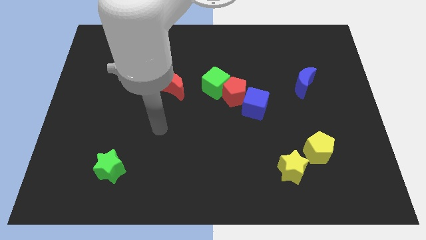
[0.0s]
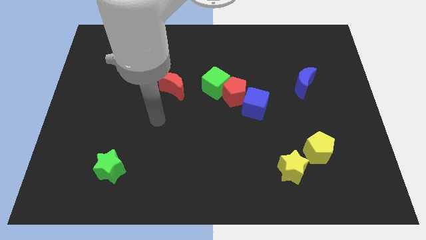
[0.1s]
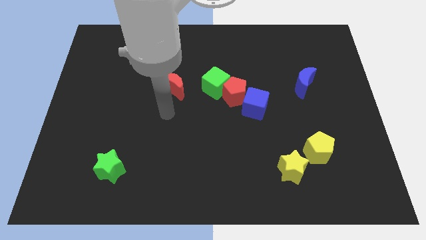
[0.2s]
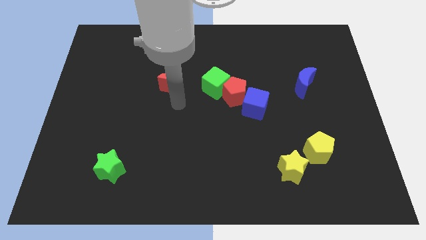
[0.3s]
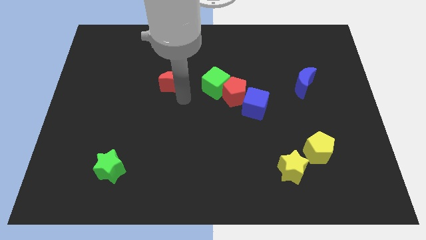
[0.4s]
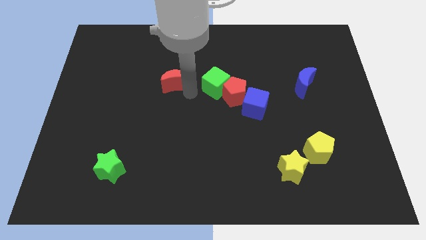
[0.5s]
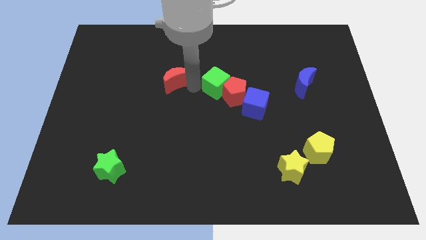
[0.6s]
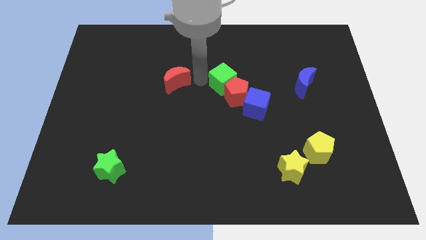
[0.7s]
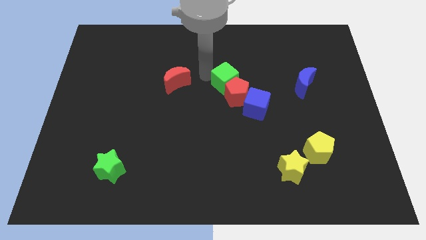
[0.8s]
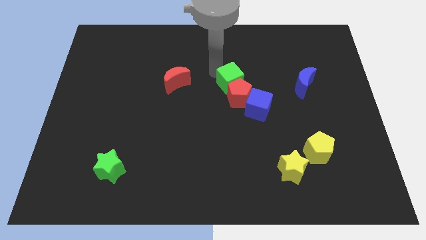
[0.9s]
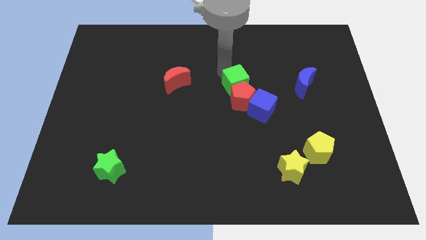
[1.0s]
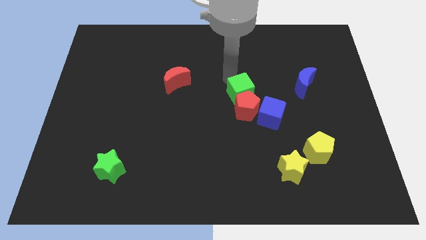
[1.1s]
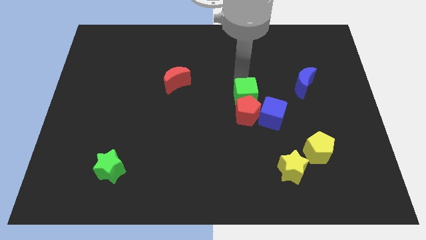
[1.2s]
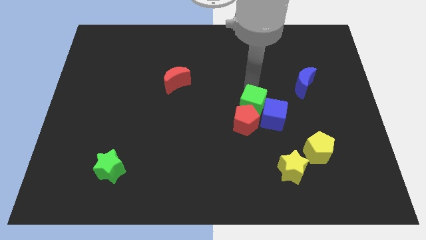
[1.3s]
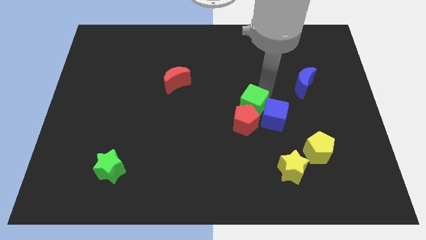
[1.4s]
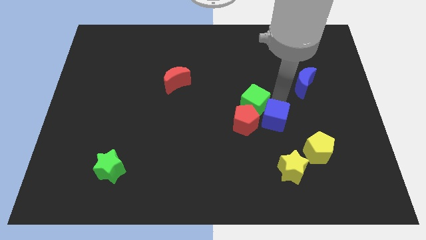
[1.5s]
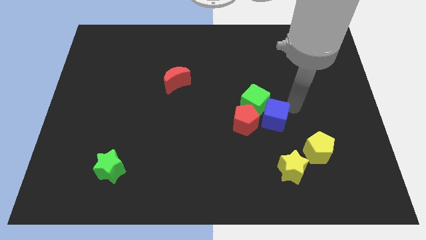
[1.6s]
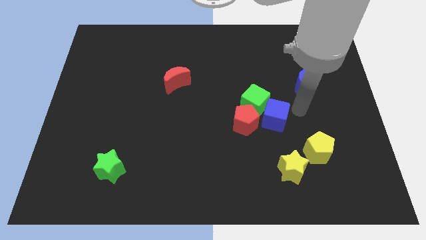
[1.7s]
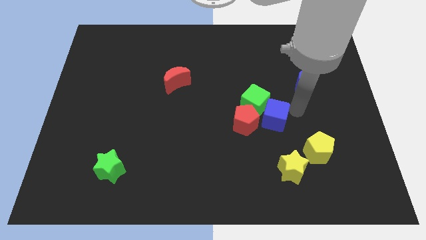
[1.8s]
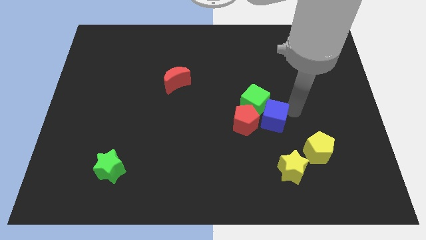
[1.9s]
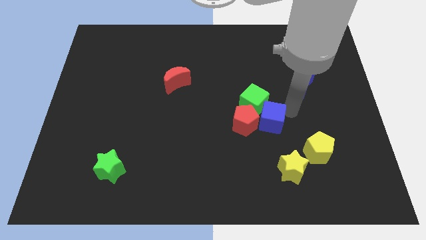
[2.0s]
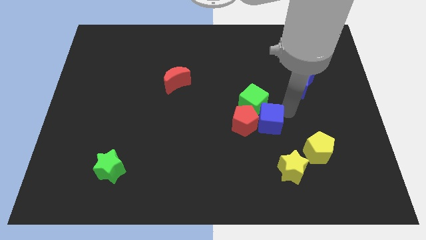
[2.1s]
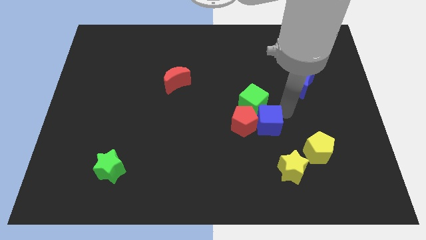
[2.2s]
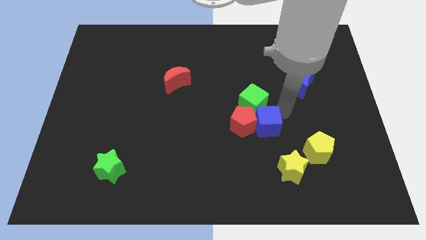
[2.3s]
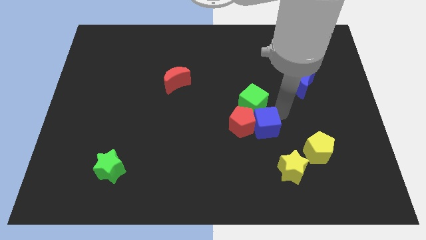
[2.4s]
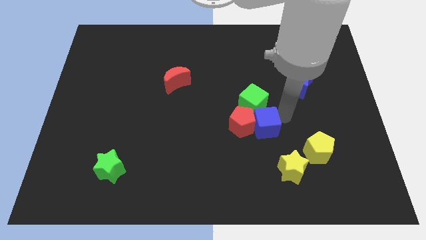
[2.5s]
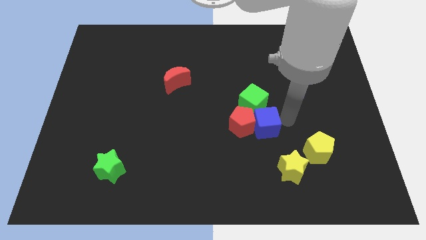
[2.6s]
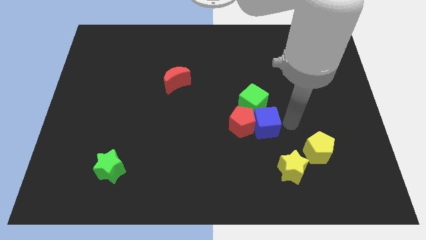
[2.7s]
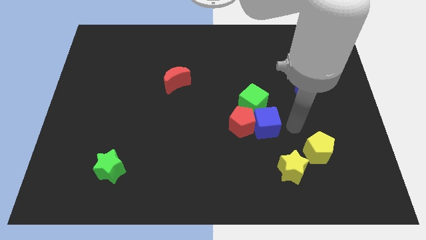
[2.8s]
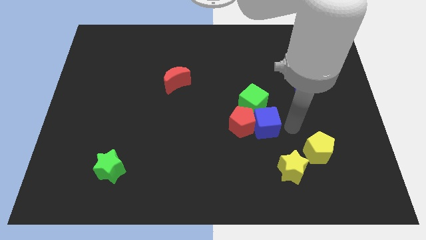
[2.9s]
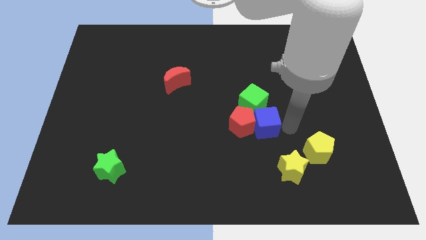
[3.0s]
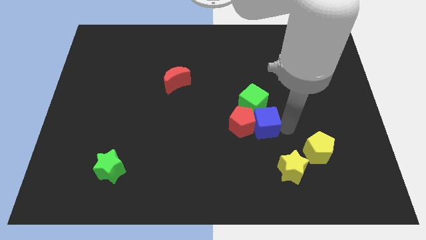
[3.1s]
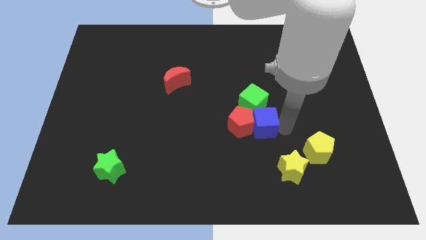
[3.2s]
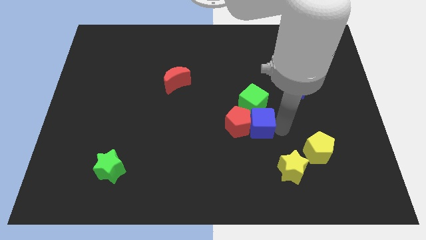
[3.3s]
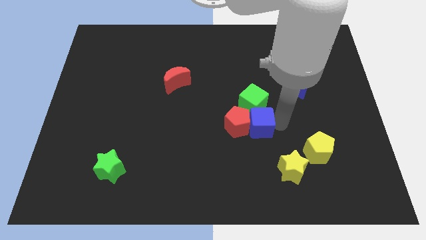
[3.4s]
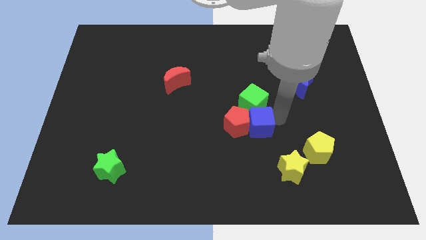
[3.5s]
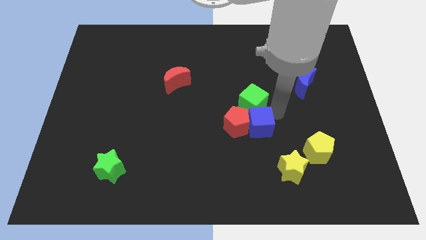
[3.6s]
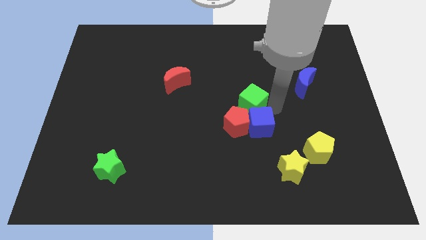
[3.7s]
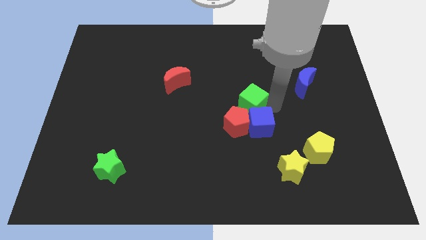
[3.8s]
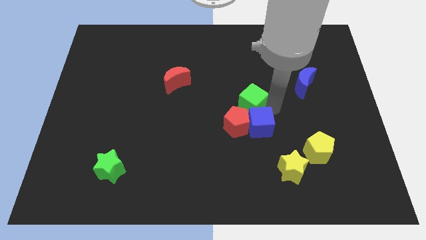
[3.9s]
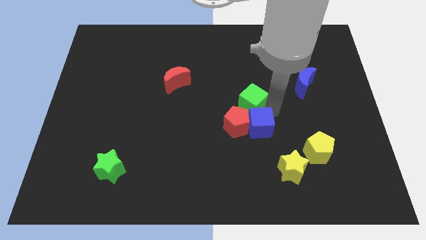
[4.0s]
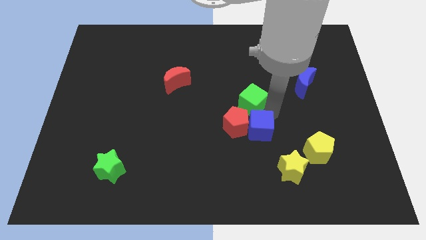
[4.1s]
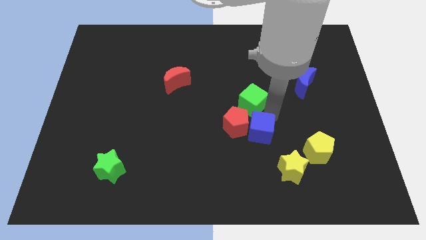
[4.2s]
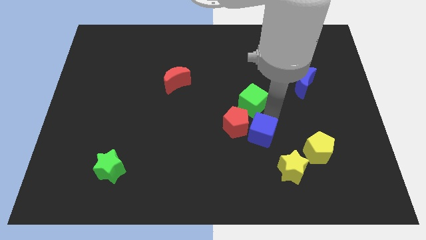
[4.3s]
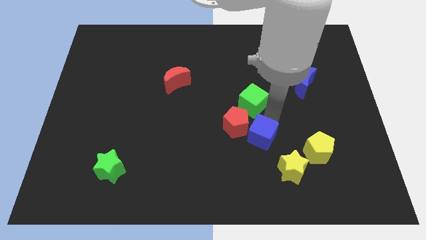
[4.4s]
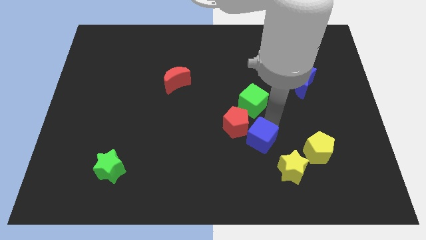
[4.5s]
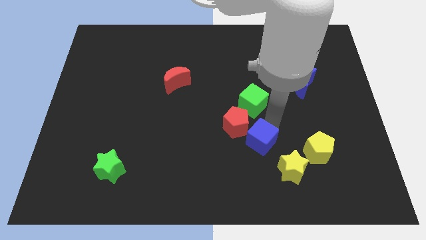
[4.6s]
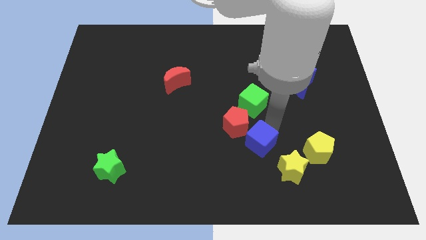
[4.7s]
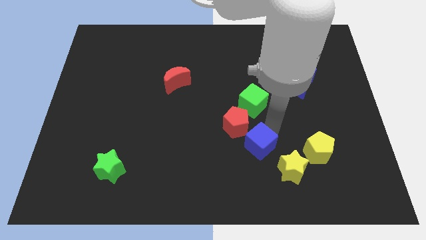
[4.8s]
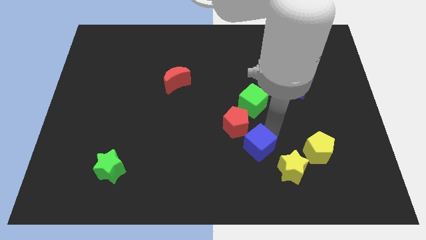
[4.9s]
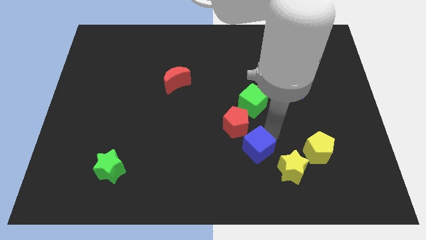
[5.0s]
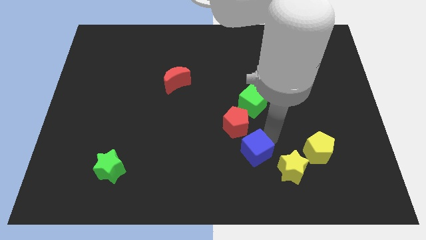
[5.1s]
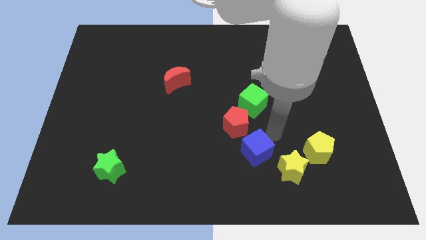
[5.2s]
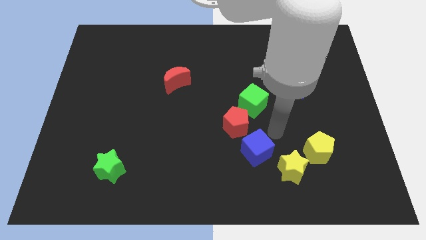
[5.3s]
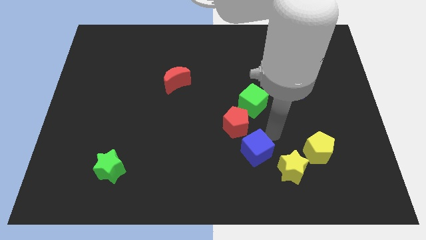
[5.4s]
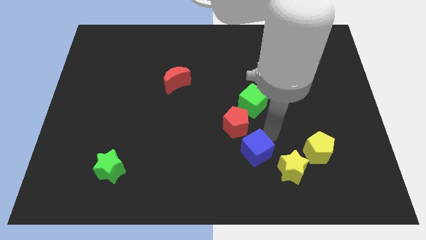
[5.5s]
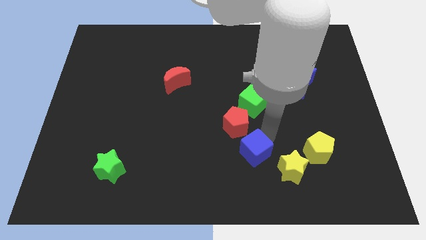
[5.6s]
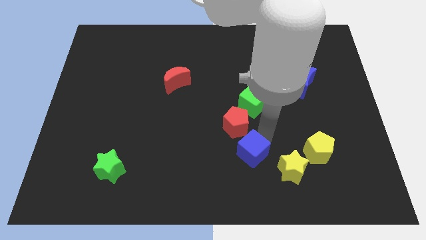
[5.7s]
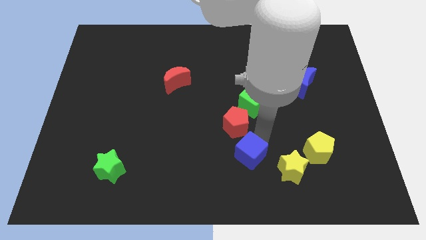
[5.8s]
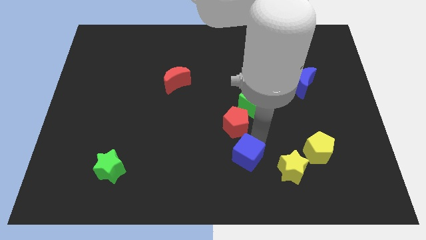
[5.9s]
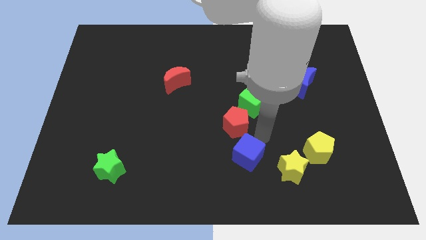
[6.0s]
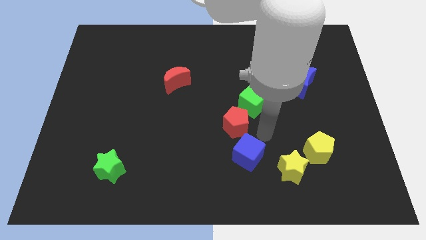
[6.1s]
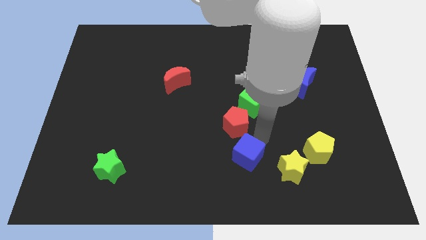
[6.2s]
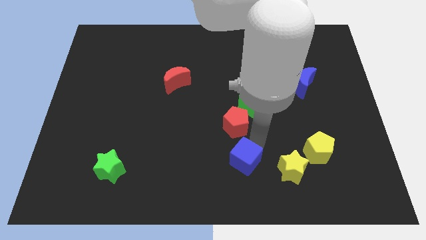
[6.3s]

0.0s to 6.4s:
push the blue cube to the bottom side

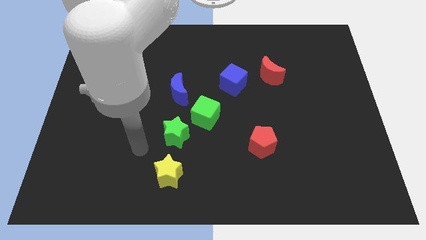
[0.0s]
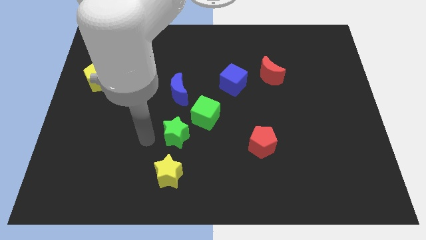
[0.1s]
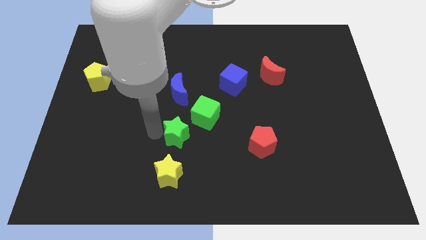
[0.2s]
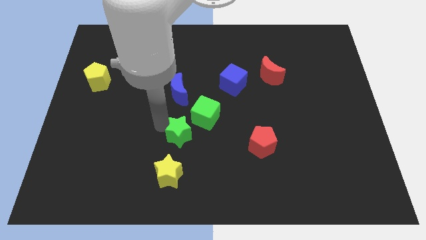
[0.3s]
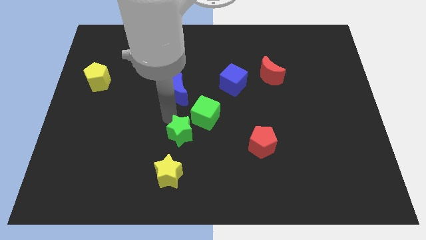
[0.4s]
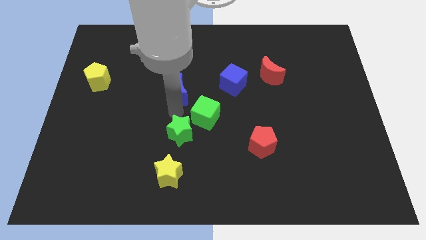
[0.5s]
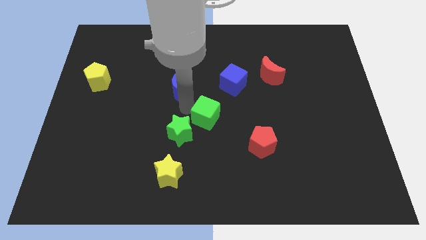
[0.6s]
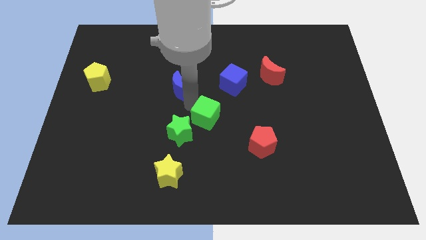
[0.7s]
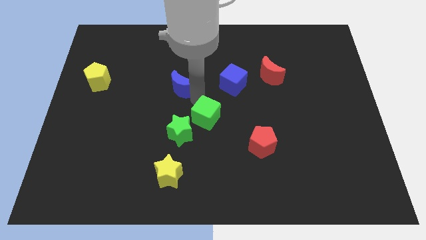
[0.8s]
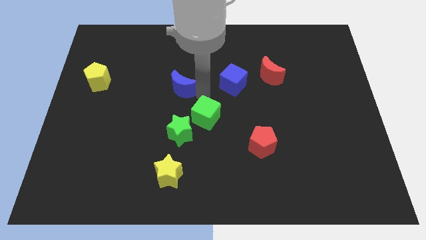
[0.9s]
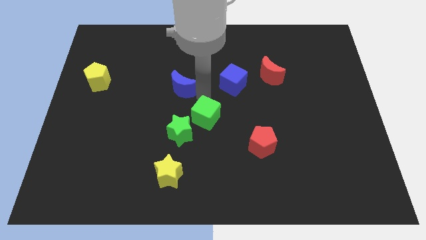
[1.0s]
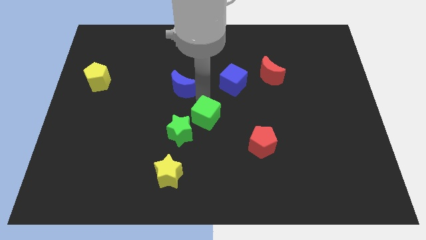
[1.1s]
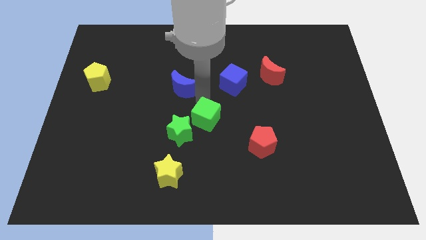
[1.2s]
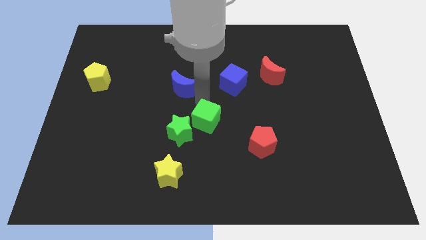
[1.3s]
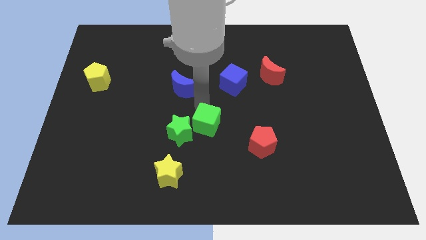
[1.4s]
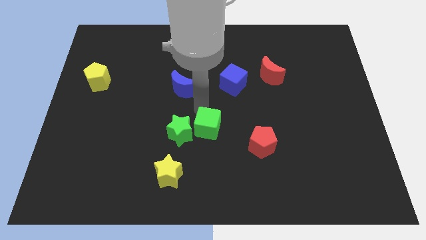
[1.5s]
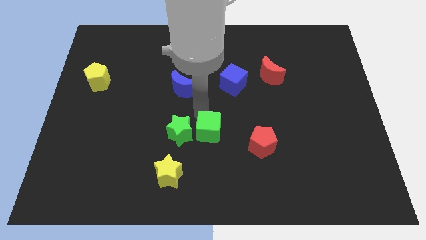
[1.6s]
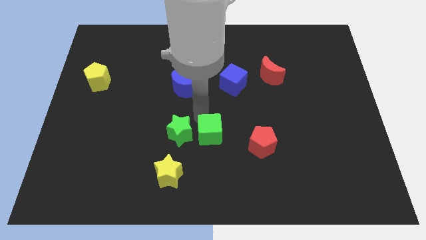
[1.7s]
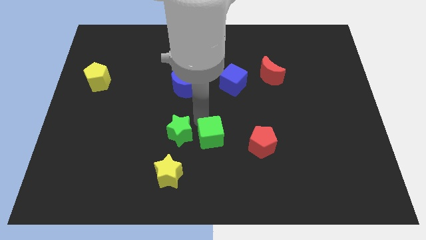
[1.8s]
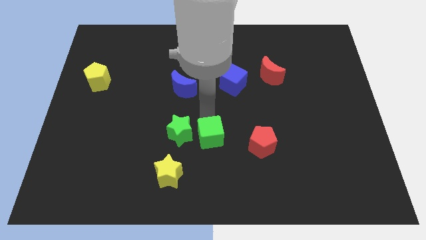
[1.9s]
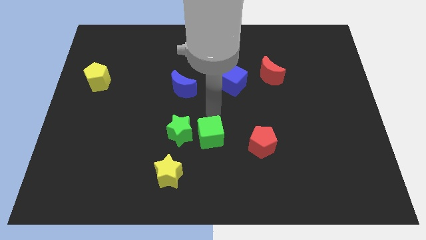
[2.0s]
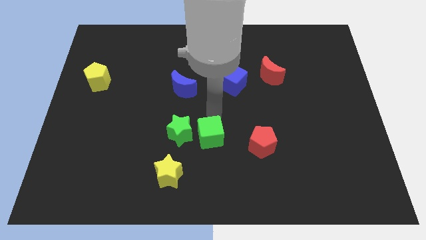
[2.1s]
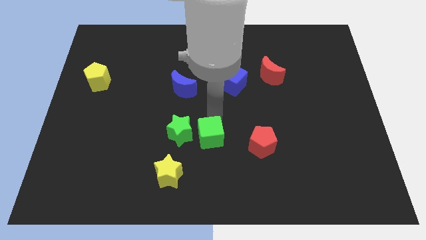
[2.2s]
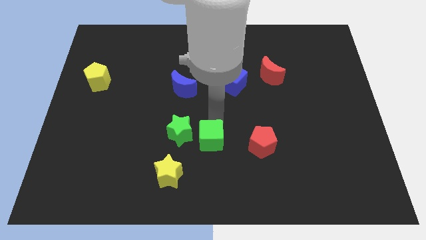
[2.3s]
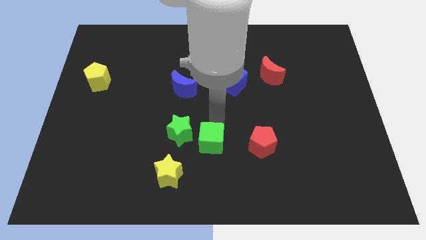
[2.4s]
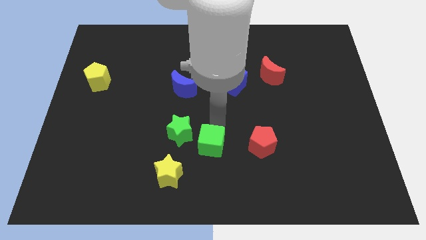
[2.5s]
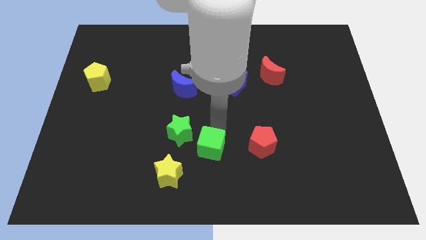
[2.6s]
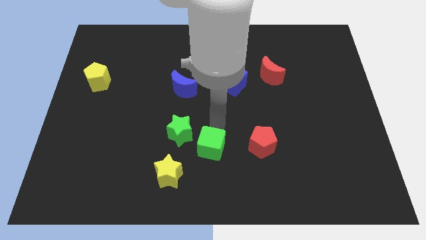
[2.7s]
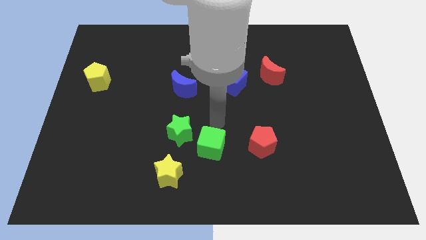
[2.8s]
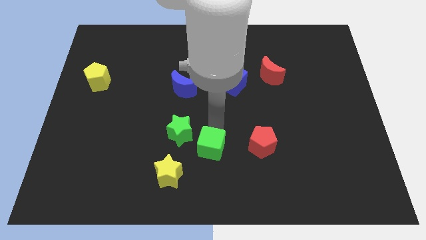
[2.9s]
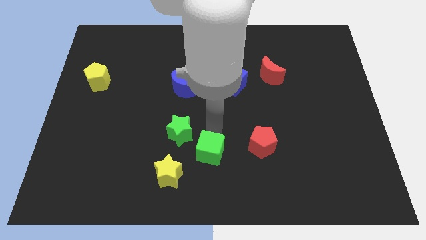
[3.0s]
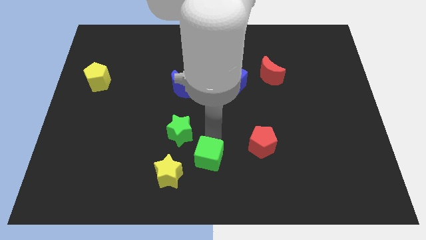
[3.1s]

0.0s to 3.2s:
move the green cube to the bottom side
